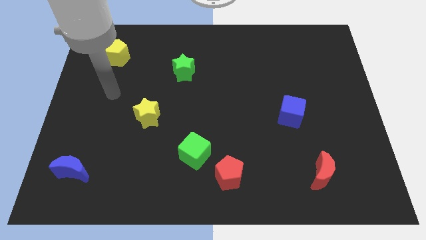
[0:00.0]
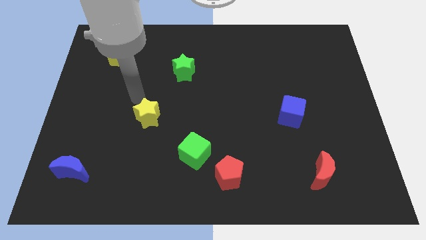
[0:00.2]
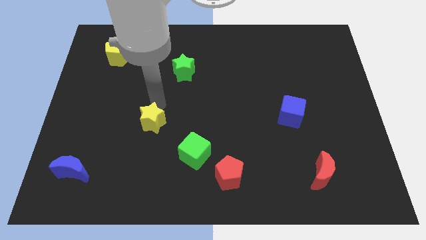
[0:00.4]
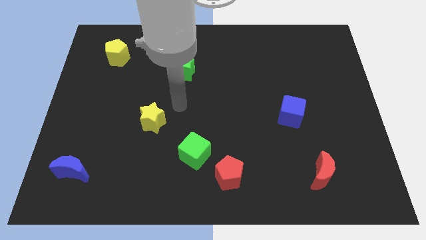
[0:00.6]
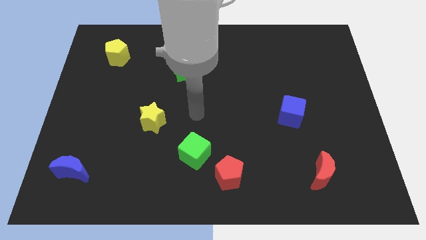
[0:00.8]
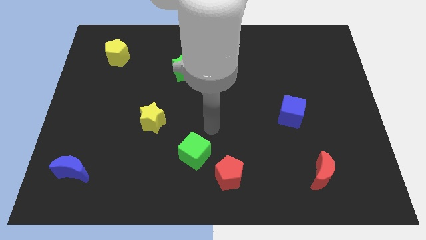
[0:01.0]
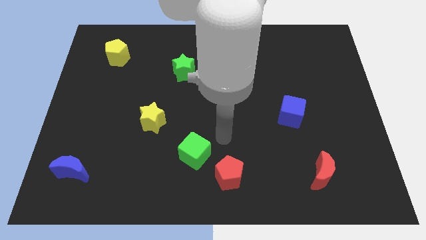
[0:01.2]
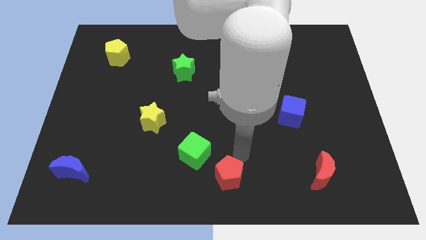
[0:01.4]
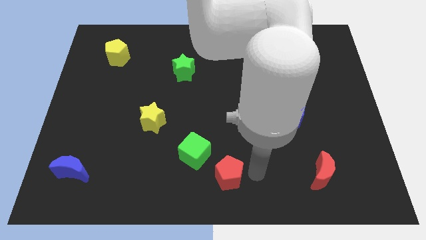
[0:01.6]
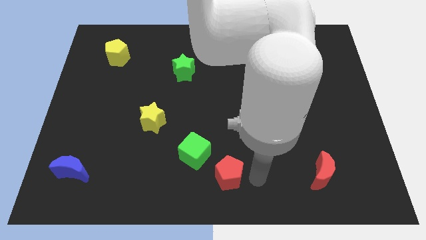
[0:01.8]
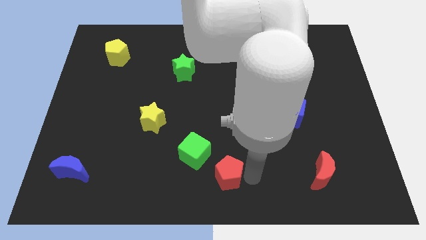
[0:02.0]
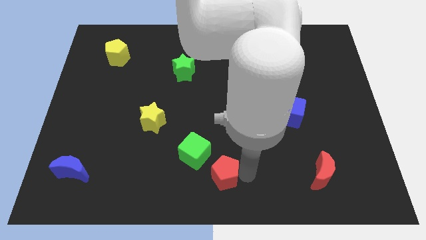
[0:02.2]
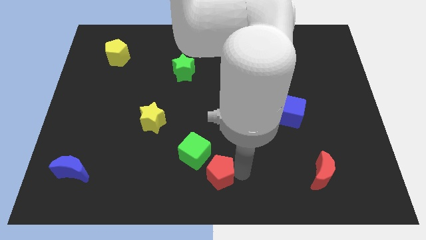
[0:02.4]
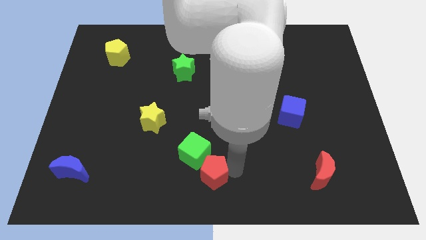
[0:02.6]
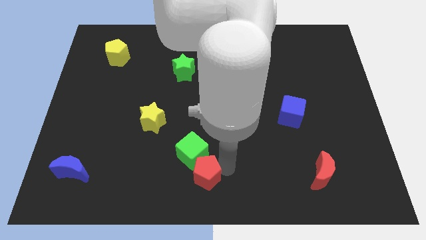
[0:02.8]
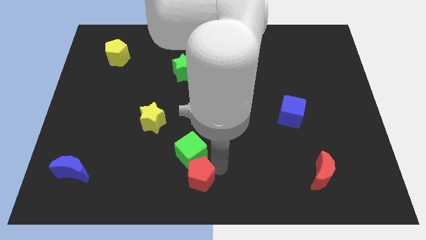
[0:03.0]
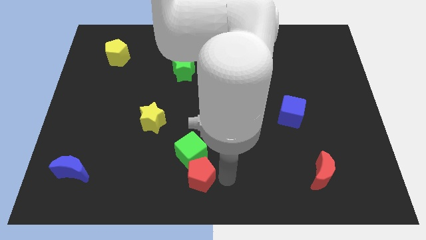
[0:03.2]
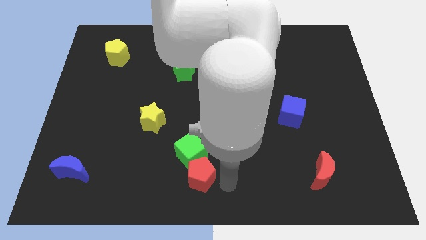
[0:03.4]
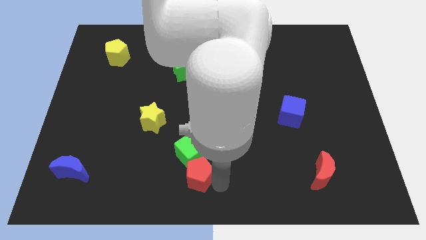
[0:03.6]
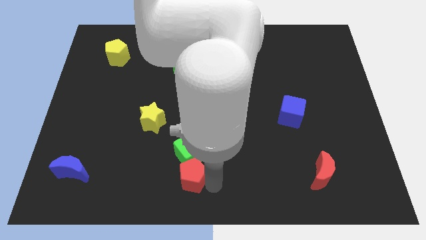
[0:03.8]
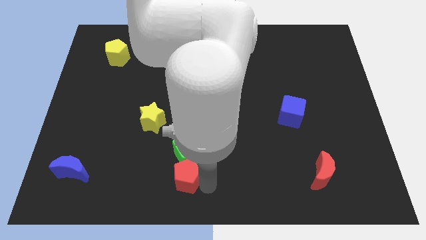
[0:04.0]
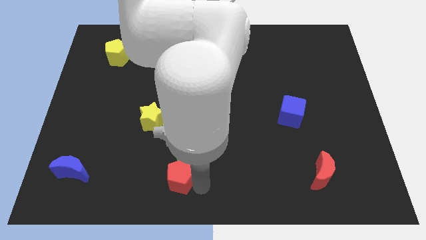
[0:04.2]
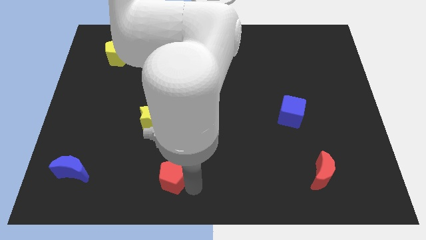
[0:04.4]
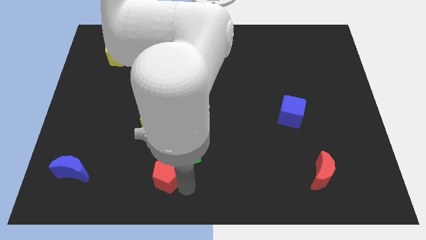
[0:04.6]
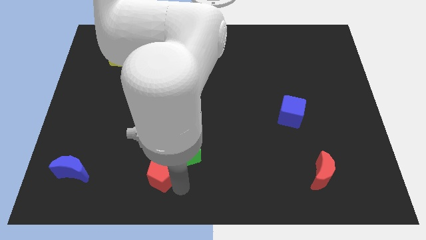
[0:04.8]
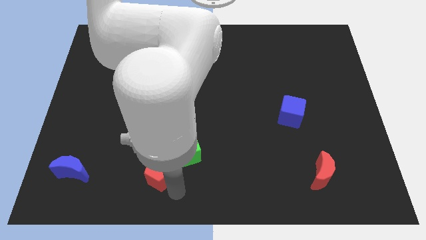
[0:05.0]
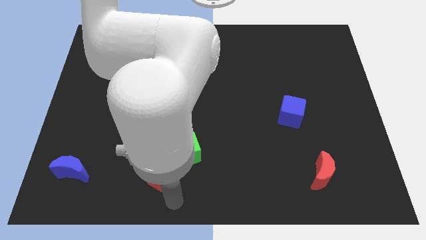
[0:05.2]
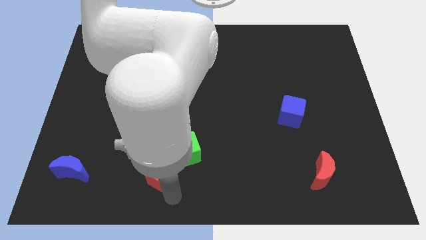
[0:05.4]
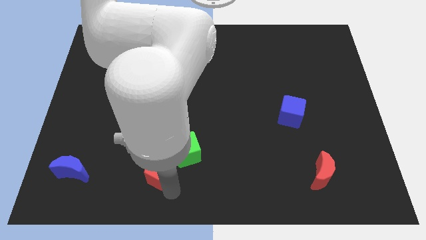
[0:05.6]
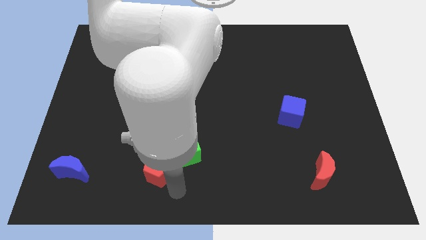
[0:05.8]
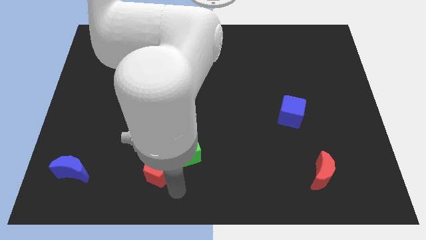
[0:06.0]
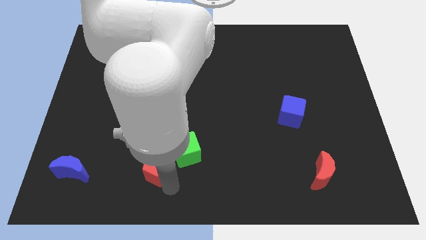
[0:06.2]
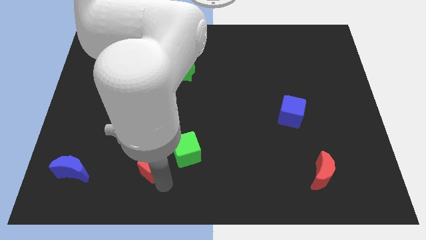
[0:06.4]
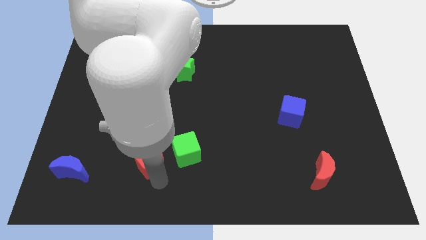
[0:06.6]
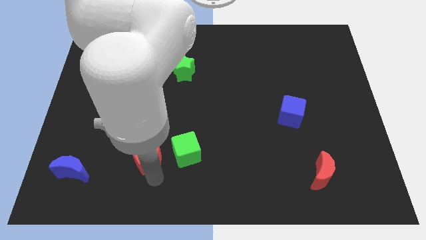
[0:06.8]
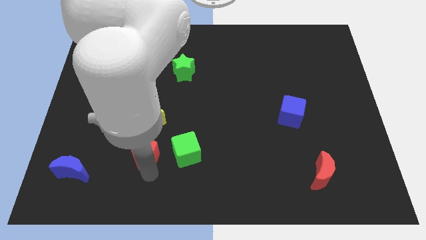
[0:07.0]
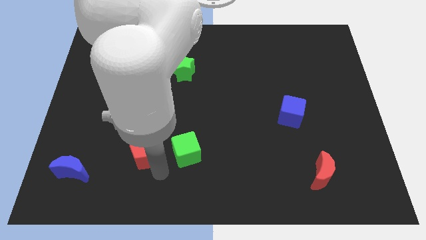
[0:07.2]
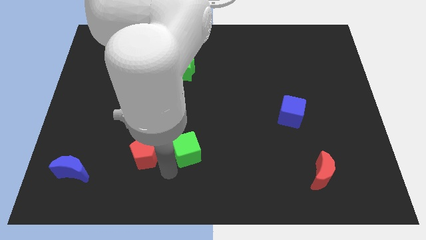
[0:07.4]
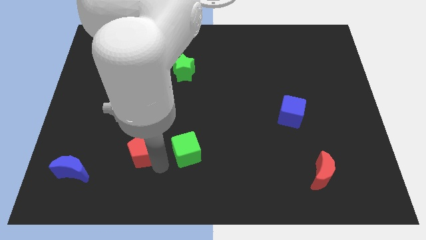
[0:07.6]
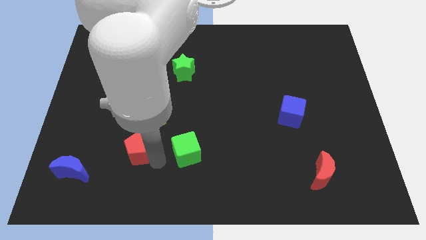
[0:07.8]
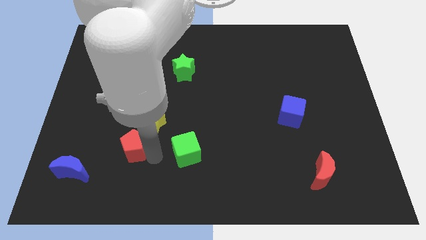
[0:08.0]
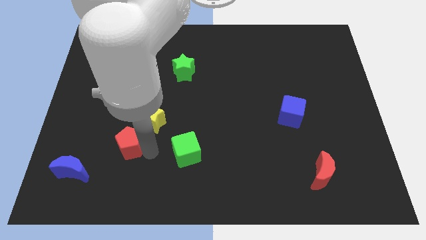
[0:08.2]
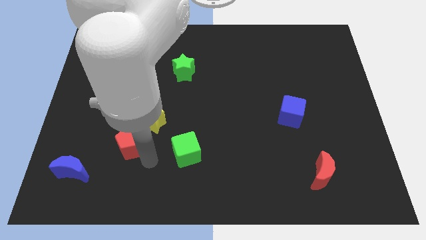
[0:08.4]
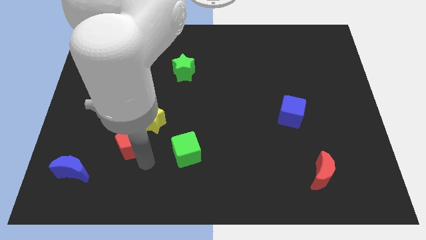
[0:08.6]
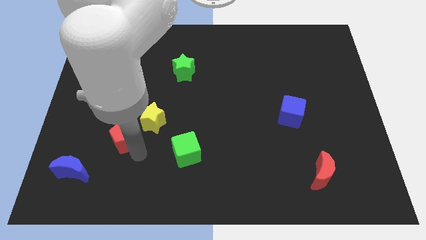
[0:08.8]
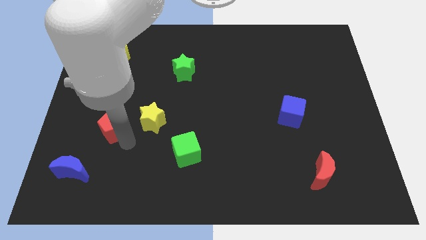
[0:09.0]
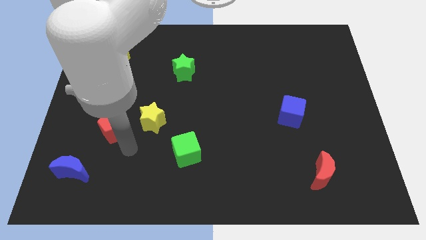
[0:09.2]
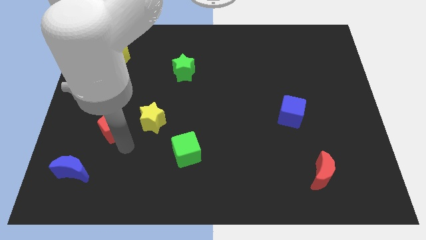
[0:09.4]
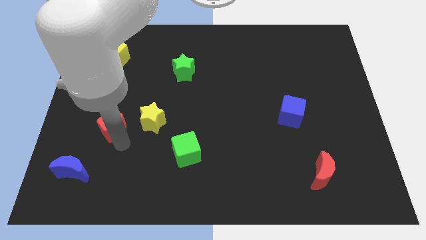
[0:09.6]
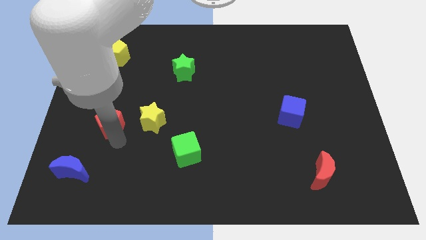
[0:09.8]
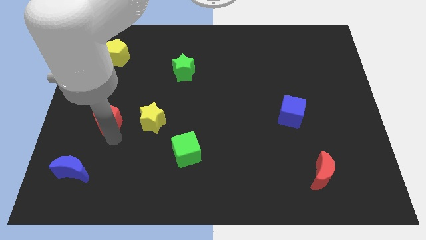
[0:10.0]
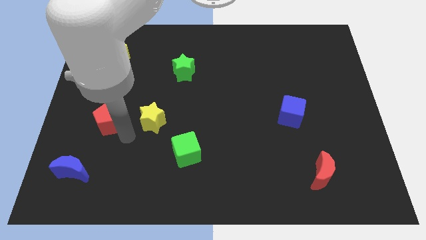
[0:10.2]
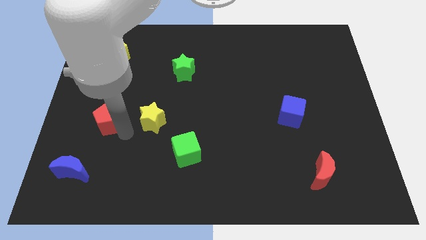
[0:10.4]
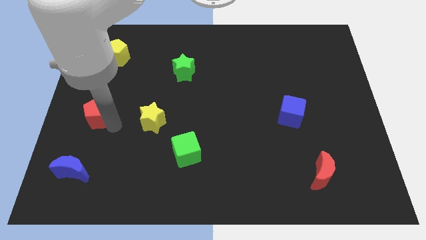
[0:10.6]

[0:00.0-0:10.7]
slide the red pentagon to the left side

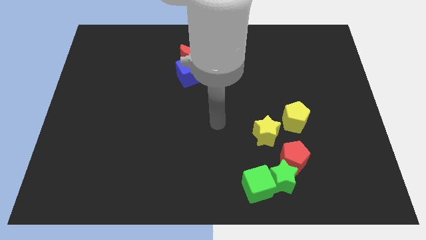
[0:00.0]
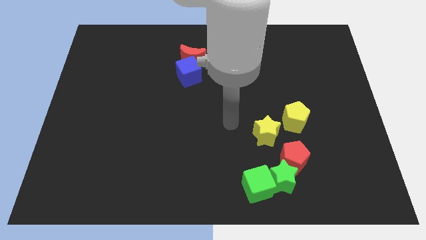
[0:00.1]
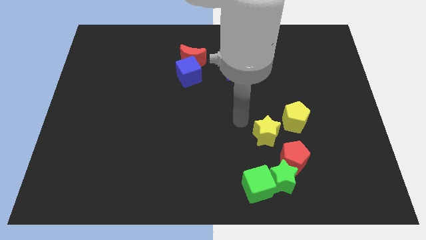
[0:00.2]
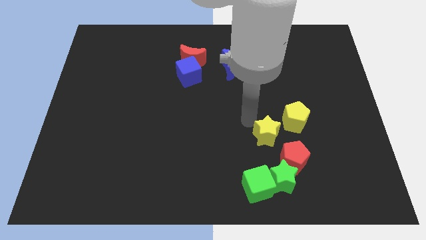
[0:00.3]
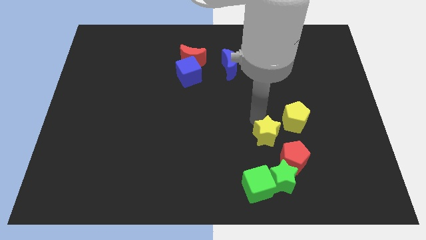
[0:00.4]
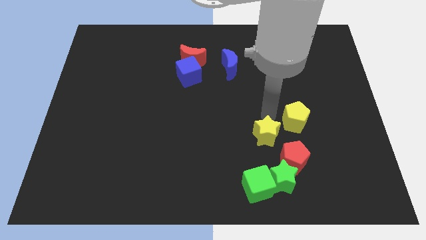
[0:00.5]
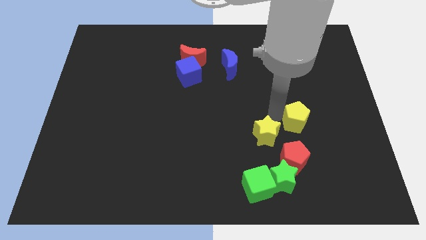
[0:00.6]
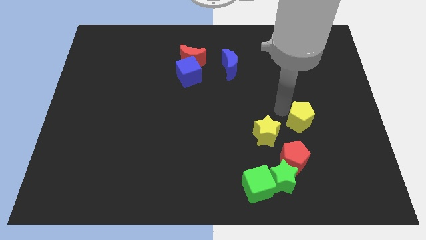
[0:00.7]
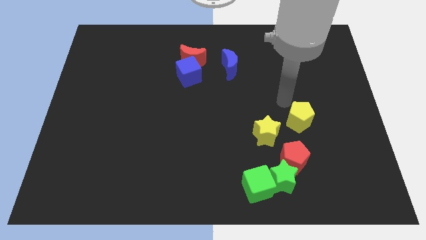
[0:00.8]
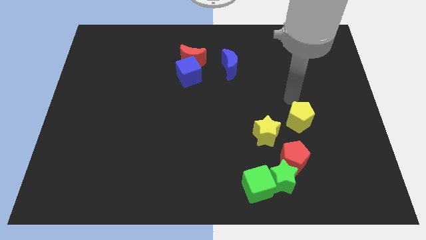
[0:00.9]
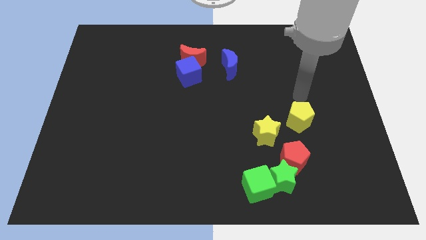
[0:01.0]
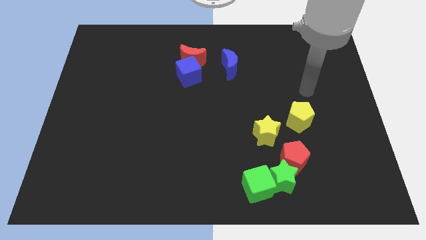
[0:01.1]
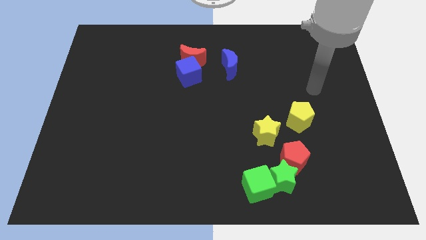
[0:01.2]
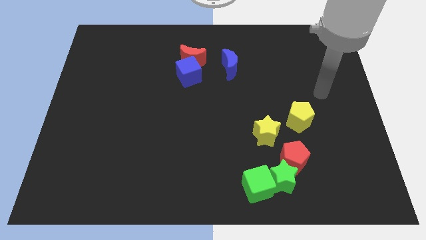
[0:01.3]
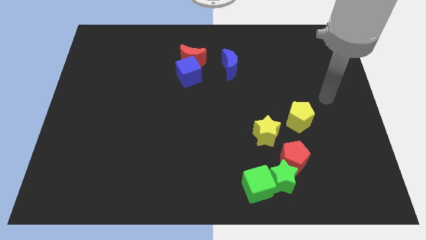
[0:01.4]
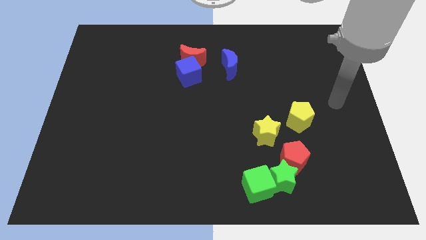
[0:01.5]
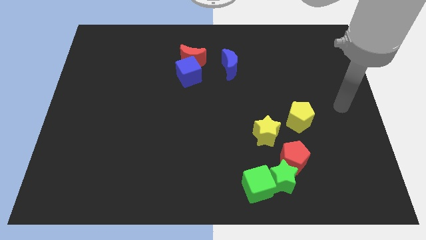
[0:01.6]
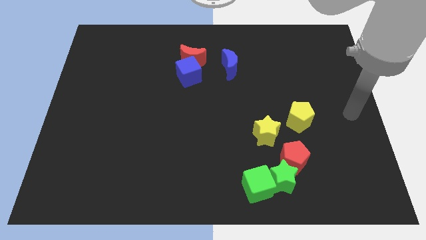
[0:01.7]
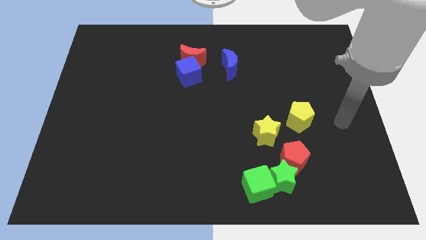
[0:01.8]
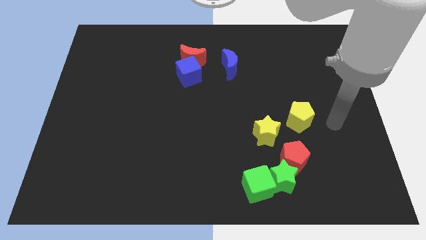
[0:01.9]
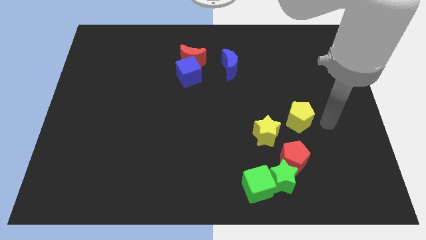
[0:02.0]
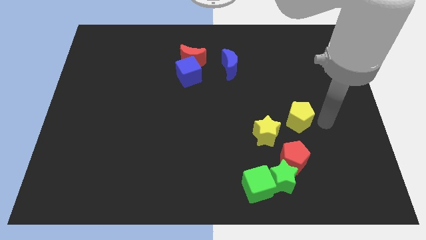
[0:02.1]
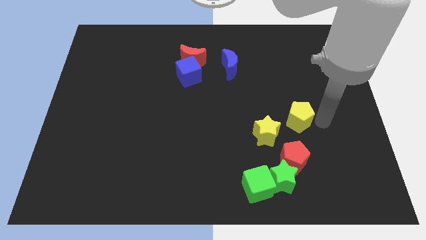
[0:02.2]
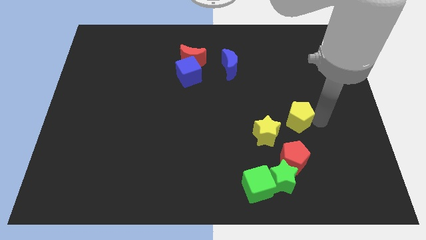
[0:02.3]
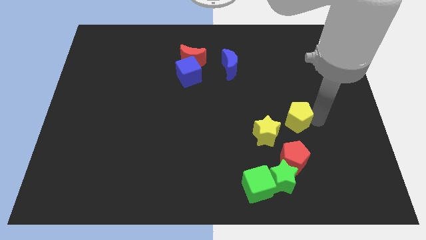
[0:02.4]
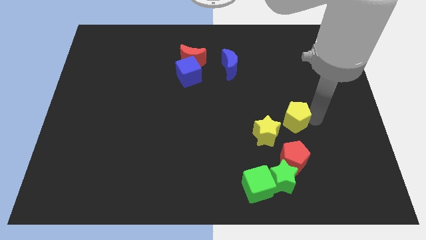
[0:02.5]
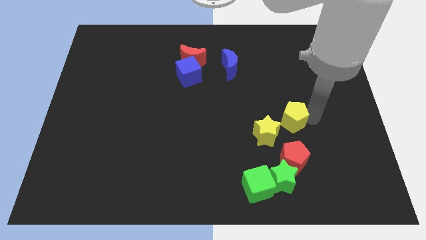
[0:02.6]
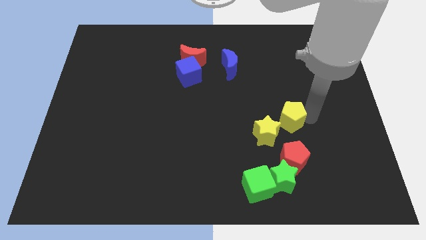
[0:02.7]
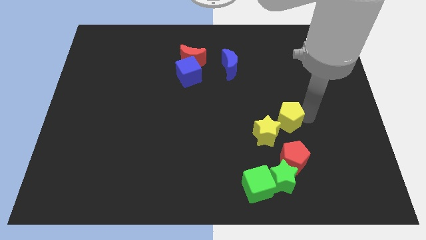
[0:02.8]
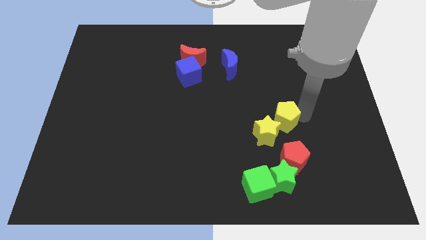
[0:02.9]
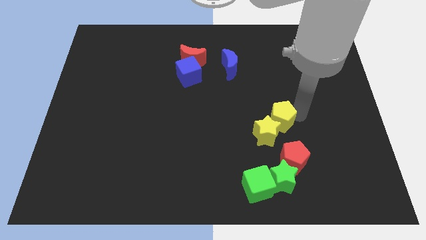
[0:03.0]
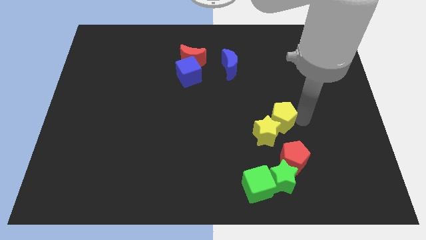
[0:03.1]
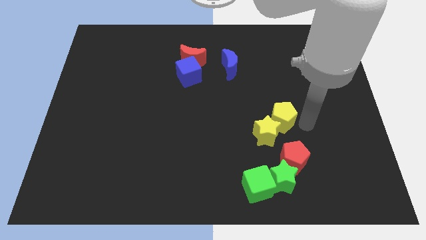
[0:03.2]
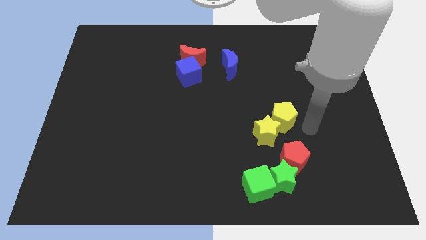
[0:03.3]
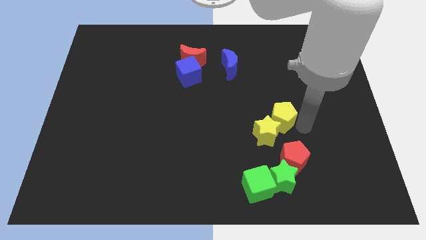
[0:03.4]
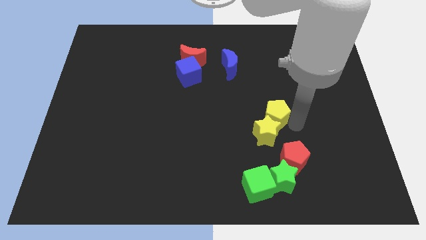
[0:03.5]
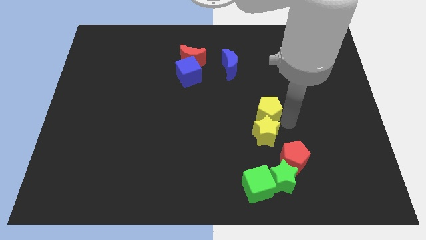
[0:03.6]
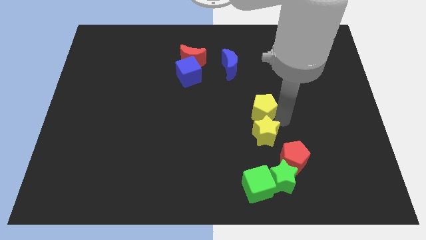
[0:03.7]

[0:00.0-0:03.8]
slide the yellow pentagon to the middle
